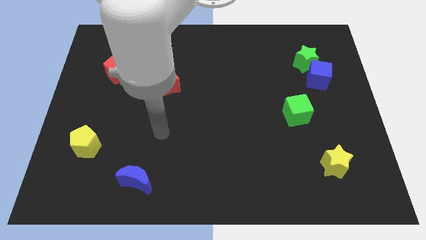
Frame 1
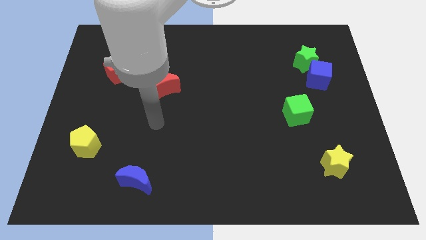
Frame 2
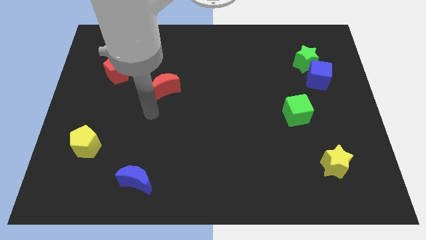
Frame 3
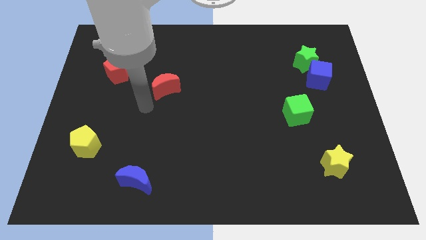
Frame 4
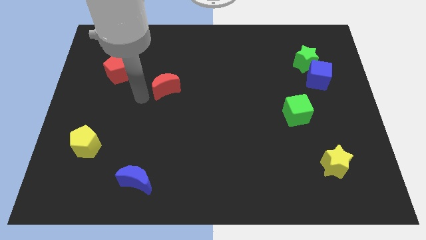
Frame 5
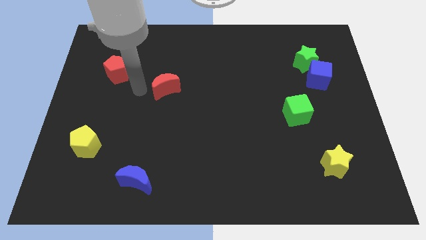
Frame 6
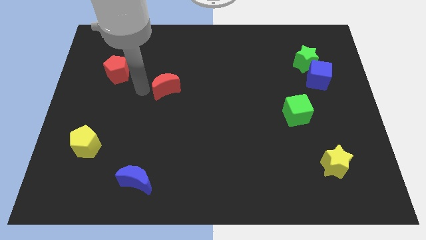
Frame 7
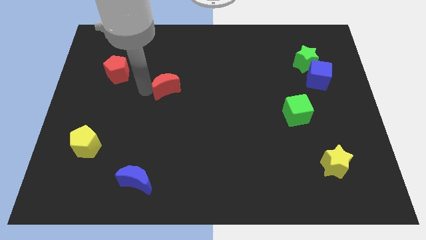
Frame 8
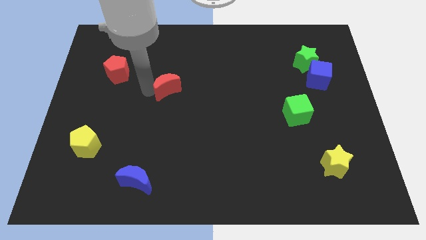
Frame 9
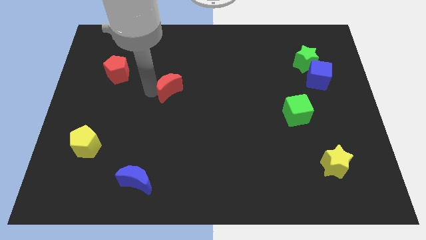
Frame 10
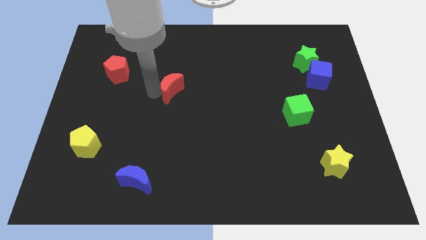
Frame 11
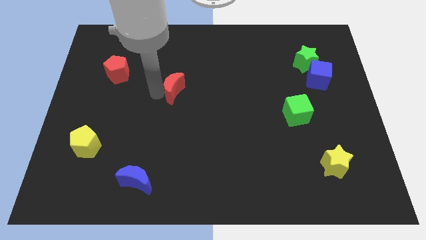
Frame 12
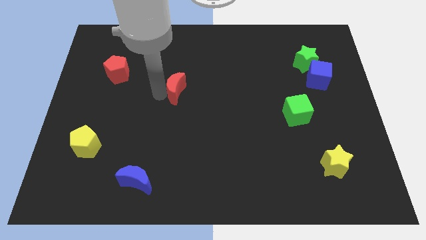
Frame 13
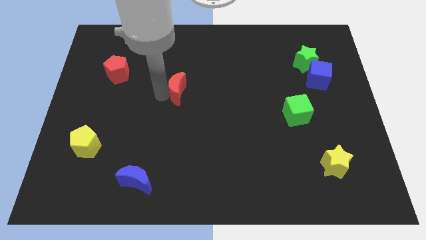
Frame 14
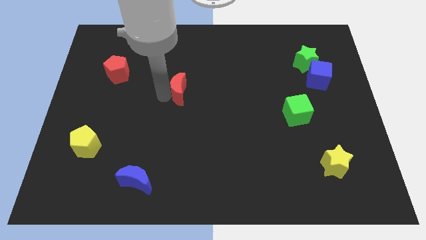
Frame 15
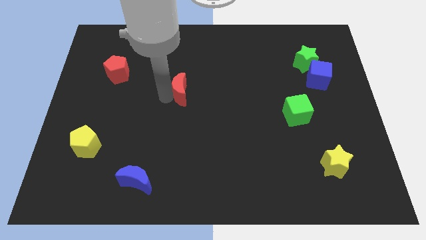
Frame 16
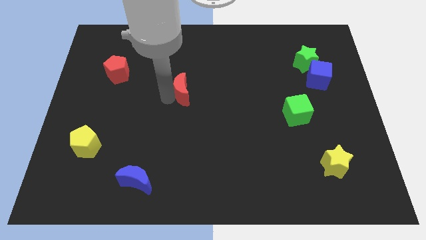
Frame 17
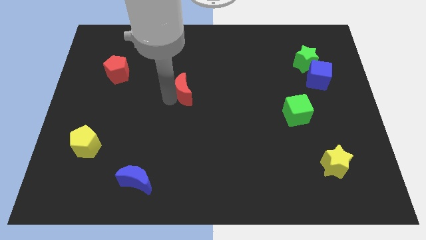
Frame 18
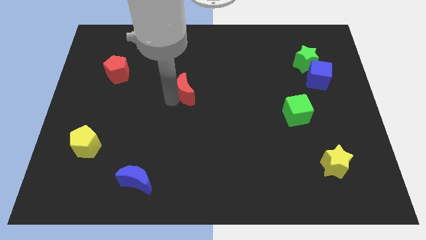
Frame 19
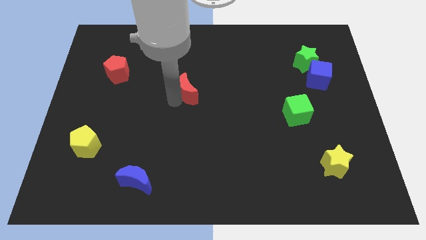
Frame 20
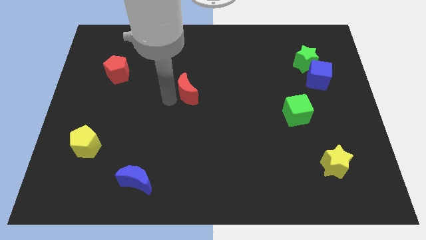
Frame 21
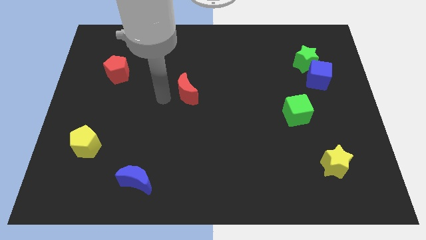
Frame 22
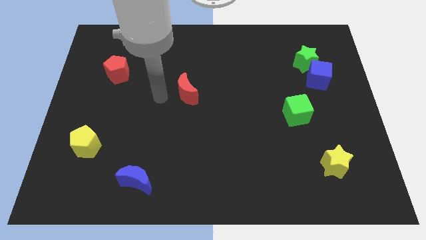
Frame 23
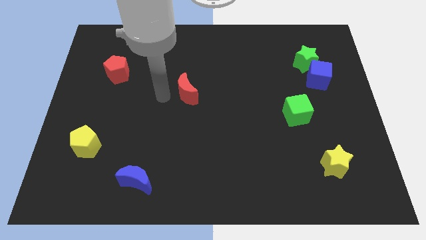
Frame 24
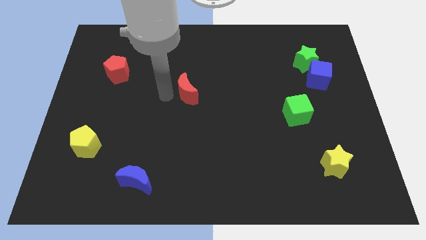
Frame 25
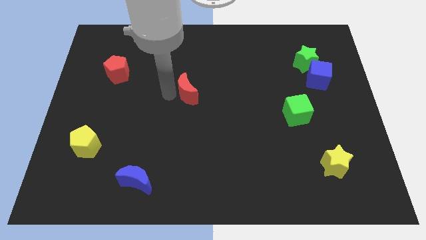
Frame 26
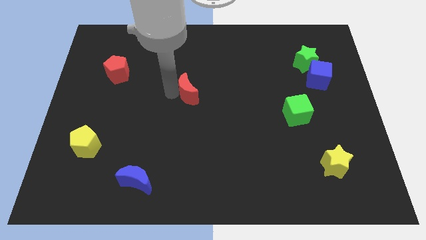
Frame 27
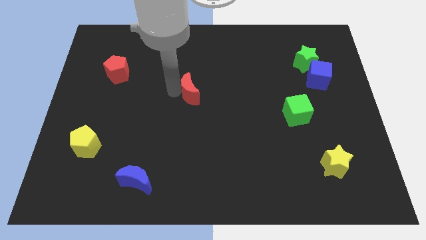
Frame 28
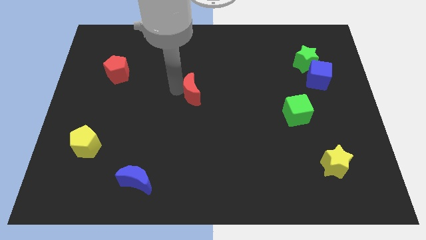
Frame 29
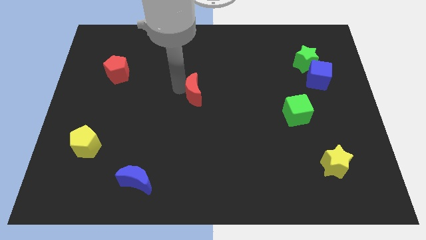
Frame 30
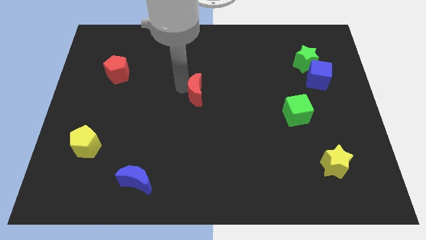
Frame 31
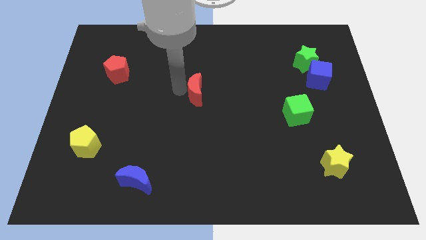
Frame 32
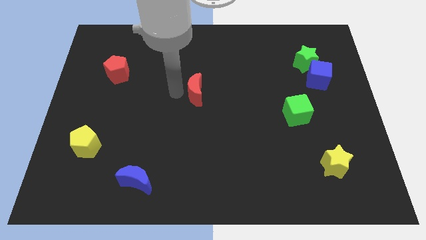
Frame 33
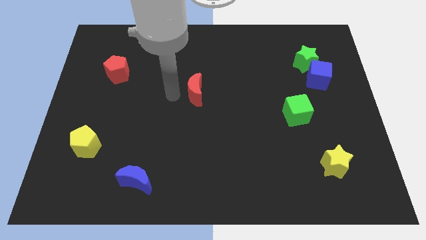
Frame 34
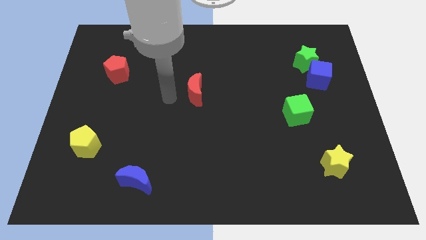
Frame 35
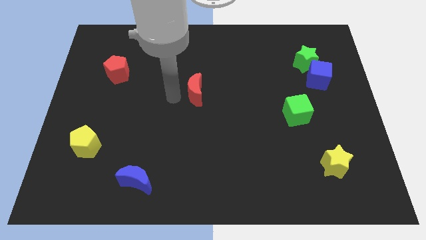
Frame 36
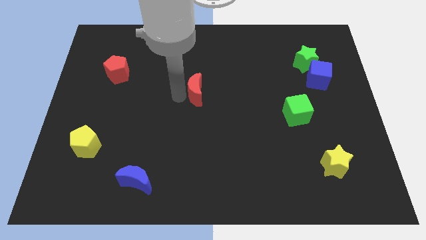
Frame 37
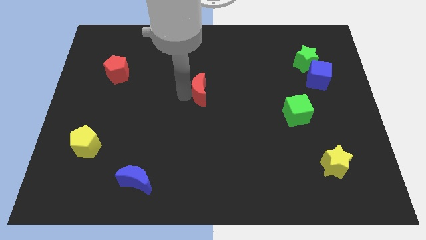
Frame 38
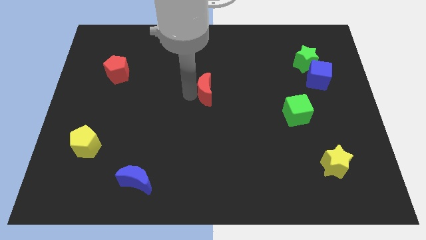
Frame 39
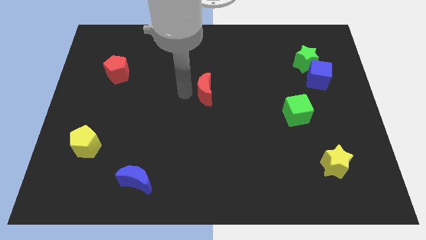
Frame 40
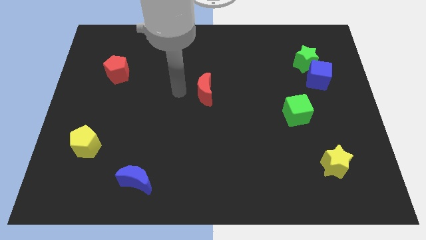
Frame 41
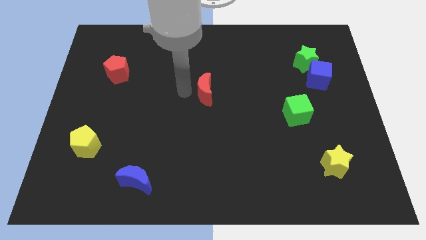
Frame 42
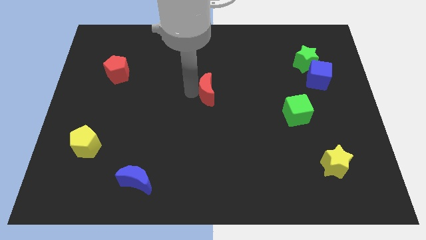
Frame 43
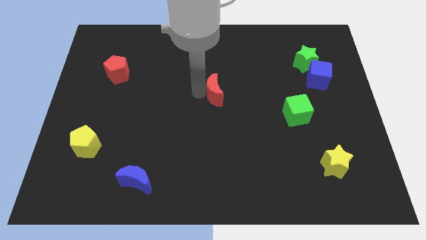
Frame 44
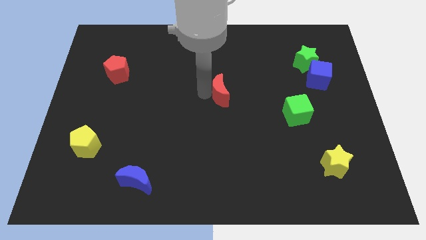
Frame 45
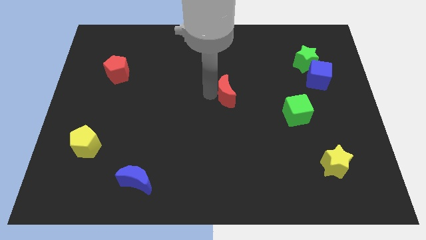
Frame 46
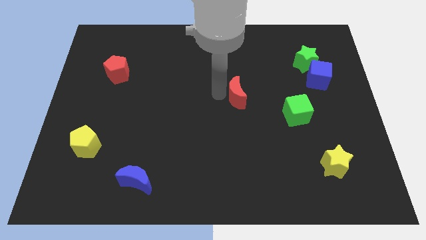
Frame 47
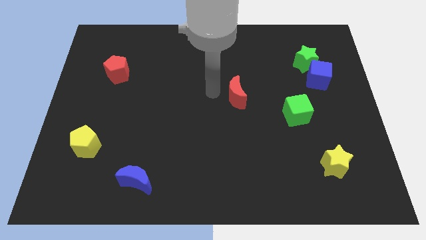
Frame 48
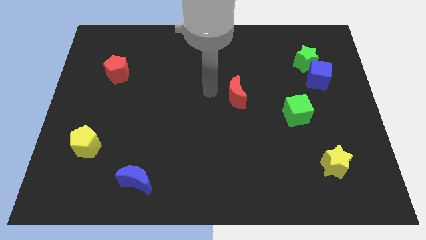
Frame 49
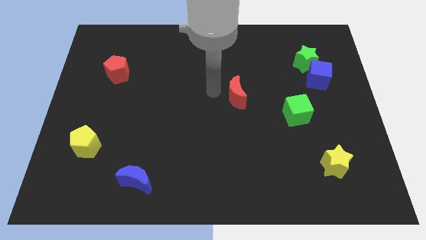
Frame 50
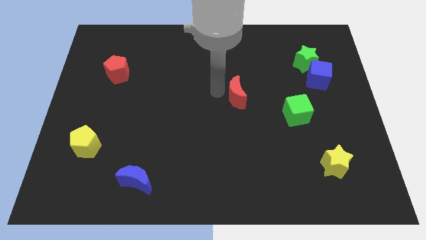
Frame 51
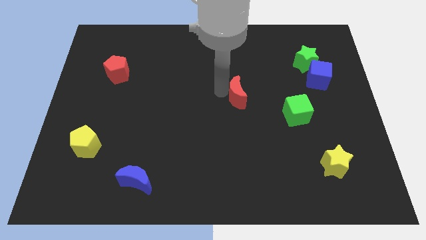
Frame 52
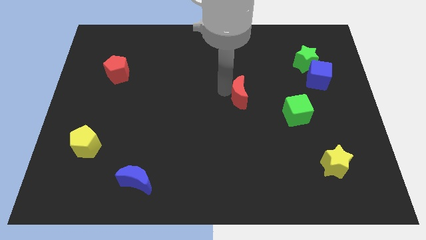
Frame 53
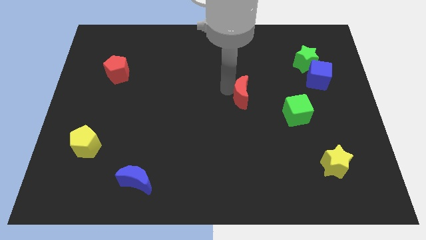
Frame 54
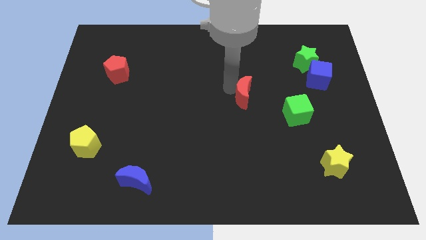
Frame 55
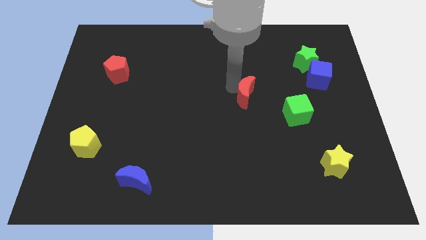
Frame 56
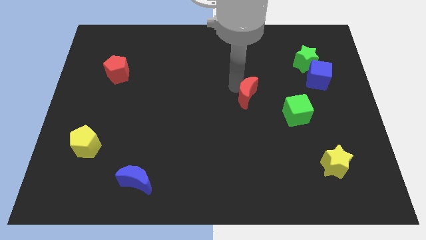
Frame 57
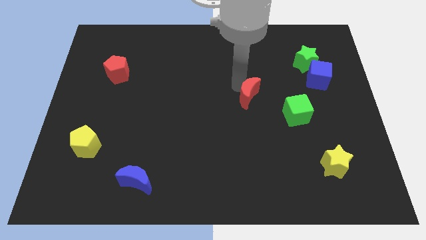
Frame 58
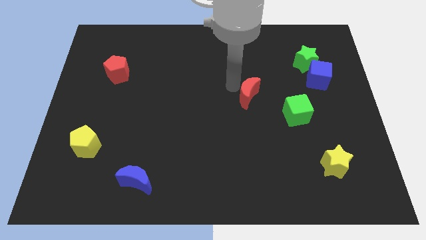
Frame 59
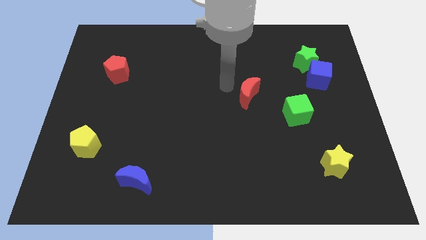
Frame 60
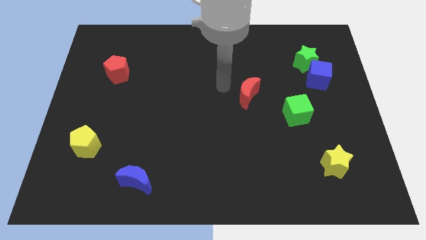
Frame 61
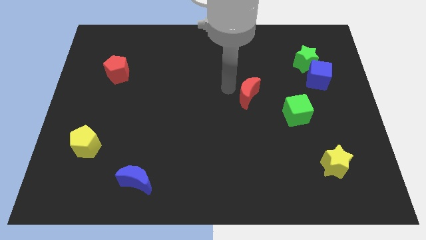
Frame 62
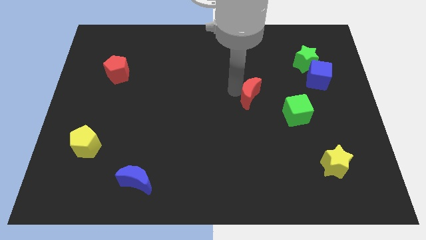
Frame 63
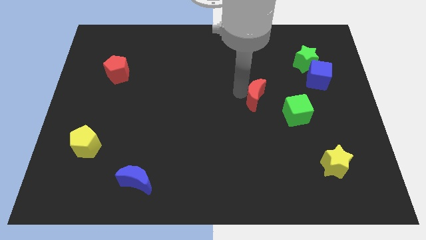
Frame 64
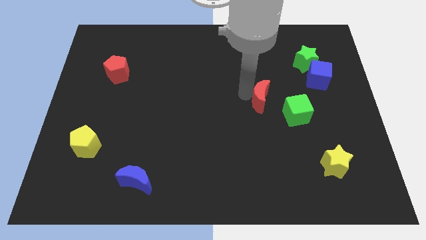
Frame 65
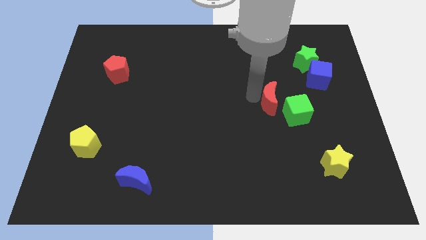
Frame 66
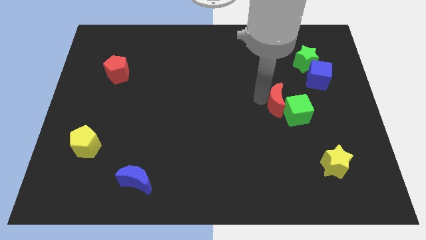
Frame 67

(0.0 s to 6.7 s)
put the red moon towards the green cube

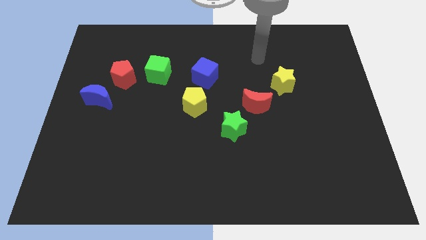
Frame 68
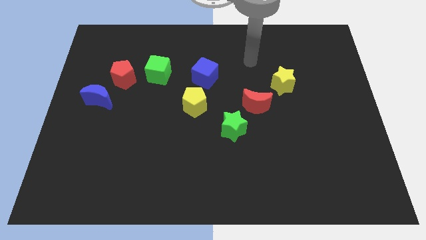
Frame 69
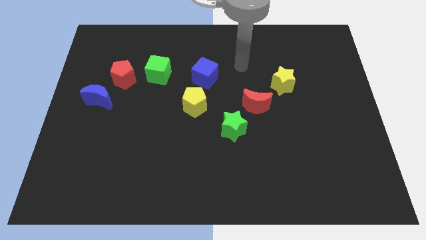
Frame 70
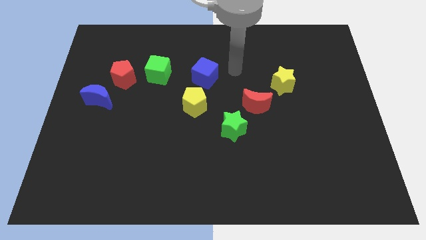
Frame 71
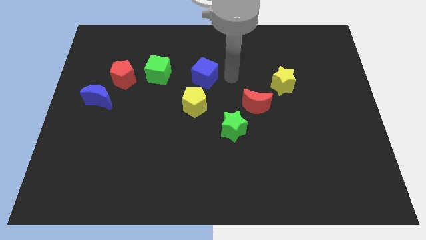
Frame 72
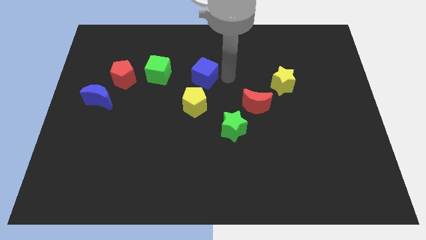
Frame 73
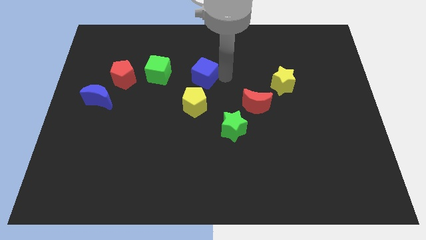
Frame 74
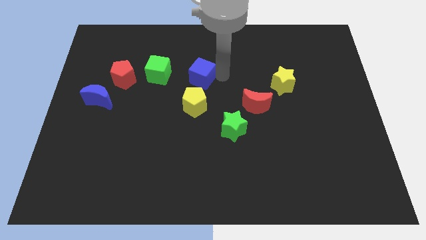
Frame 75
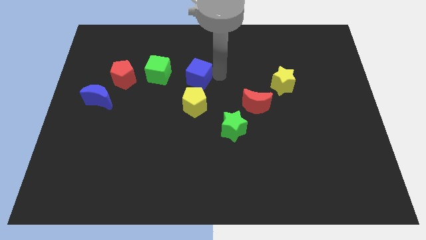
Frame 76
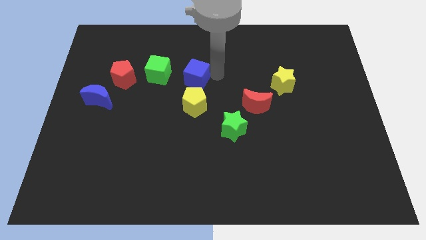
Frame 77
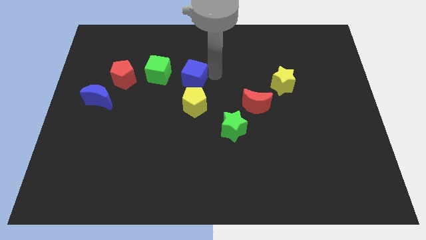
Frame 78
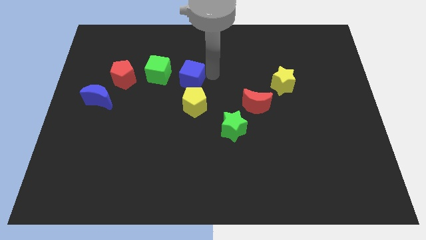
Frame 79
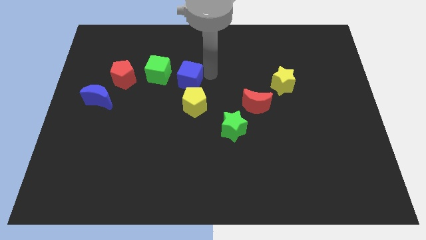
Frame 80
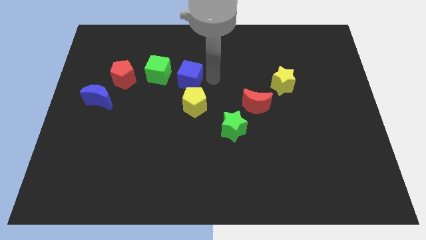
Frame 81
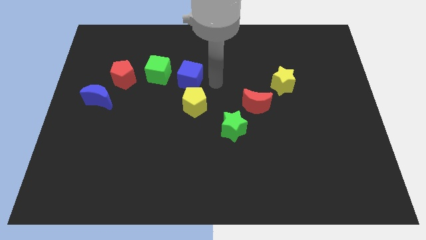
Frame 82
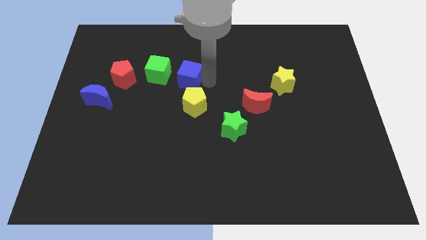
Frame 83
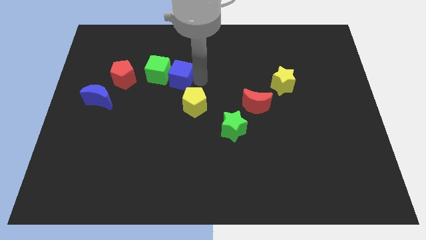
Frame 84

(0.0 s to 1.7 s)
move the blue cube to the green cube

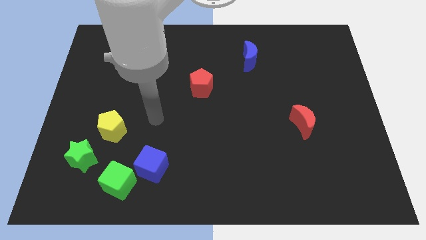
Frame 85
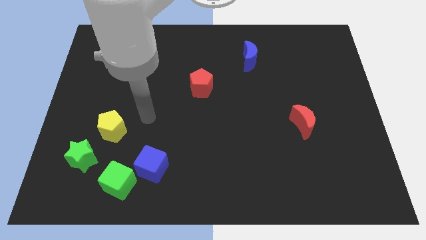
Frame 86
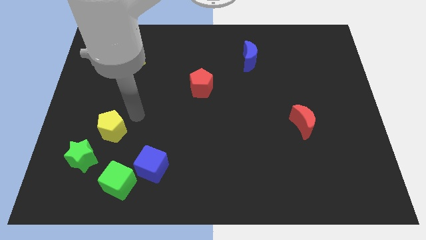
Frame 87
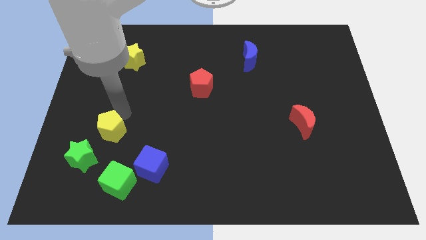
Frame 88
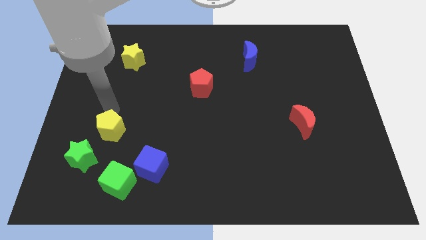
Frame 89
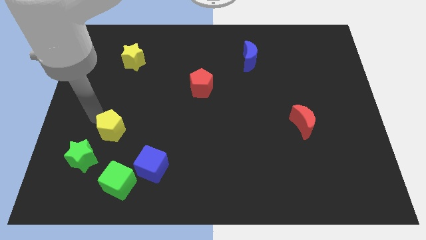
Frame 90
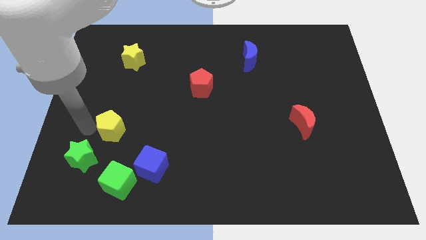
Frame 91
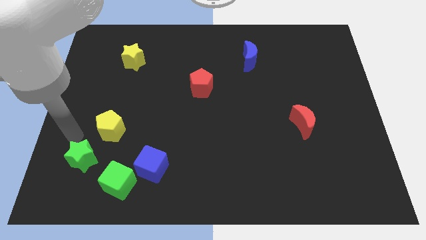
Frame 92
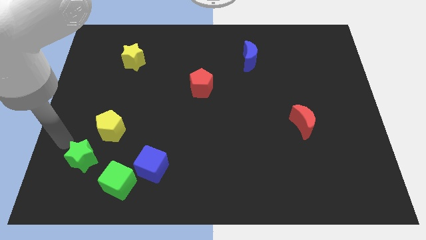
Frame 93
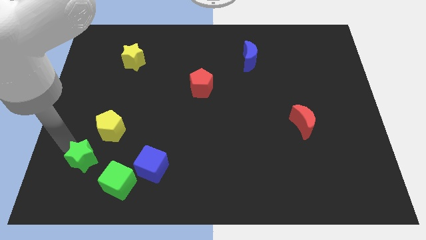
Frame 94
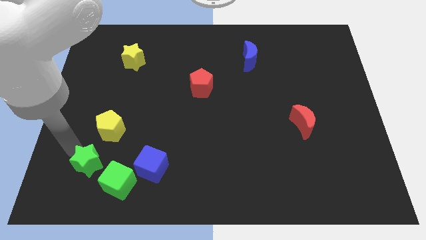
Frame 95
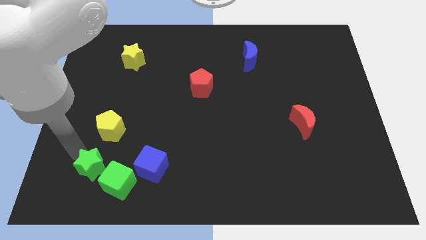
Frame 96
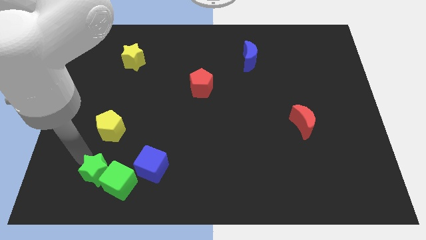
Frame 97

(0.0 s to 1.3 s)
slide the green star towards the green cube
